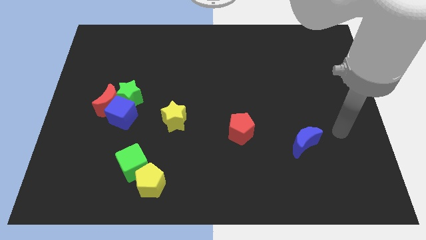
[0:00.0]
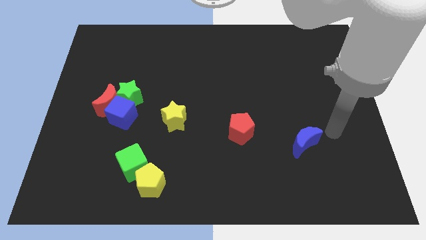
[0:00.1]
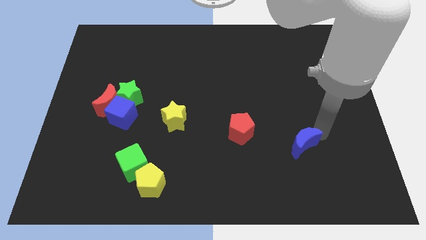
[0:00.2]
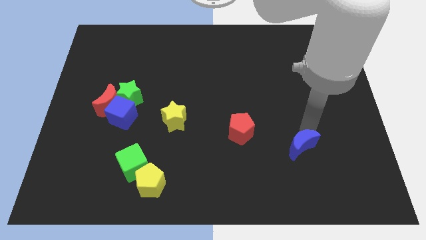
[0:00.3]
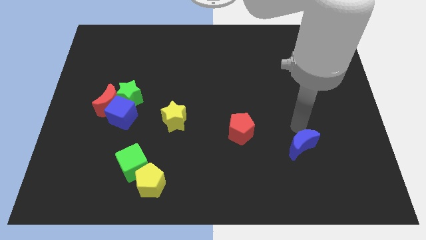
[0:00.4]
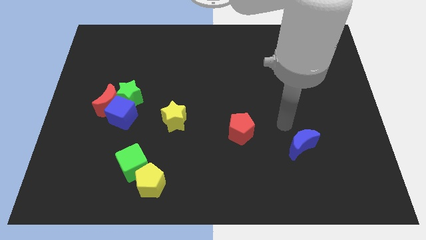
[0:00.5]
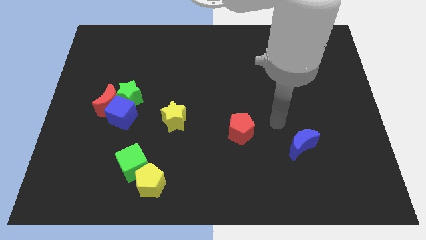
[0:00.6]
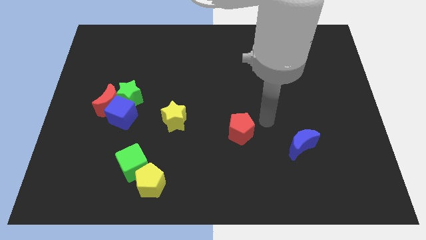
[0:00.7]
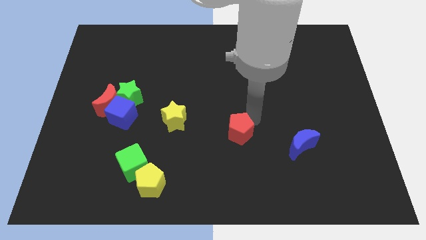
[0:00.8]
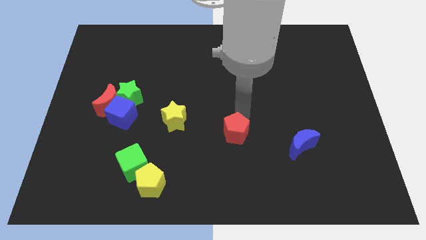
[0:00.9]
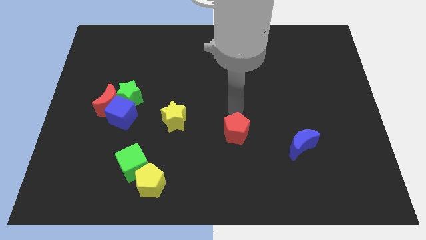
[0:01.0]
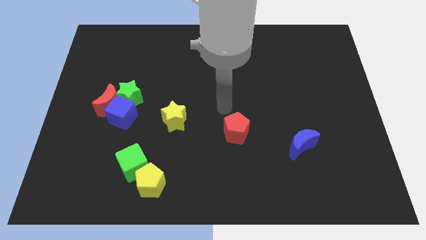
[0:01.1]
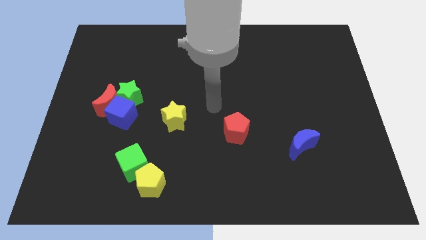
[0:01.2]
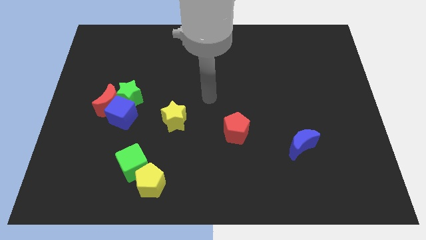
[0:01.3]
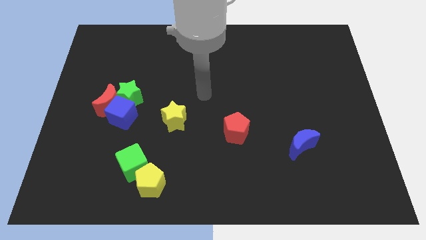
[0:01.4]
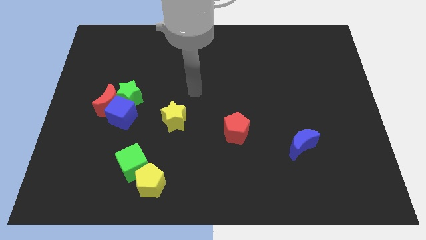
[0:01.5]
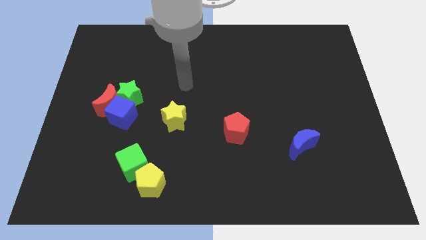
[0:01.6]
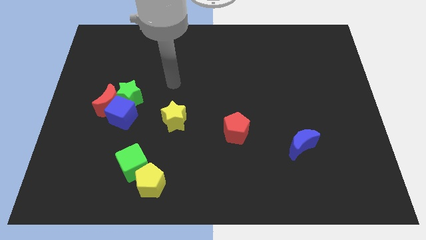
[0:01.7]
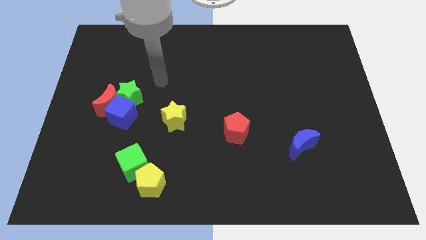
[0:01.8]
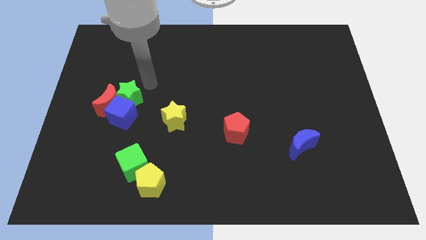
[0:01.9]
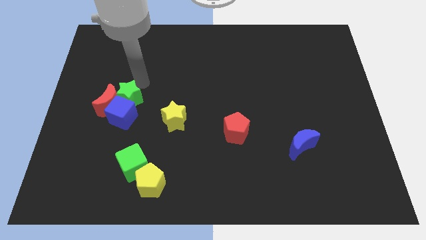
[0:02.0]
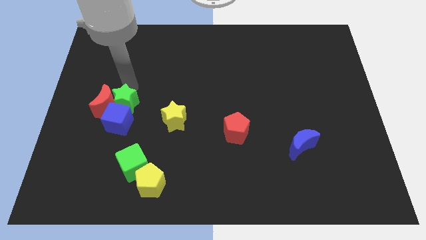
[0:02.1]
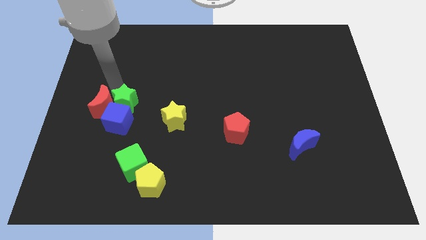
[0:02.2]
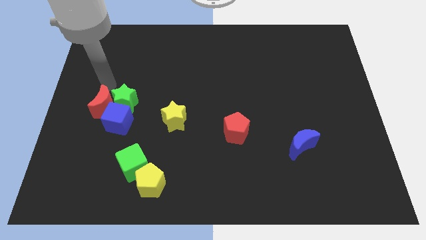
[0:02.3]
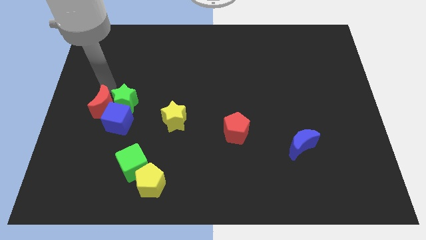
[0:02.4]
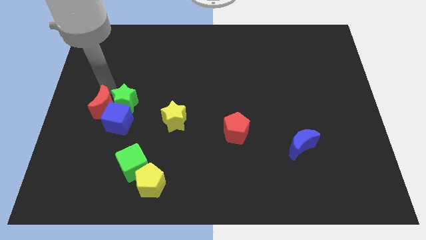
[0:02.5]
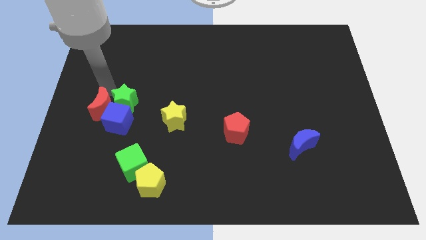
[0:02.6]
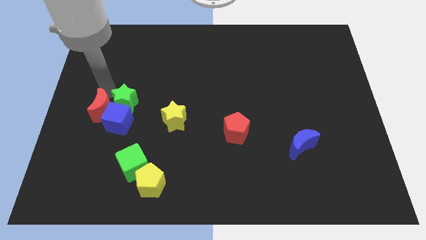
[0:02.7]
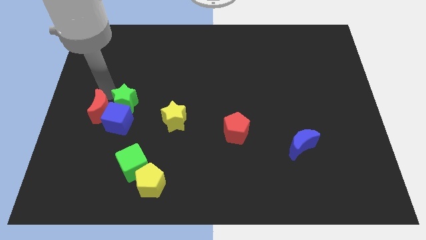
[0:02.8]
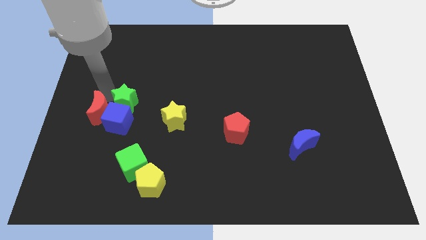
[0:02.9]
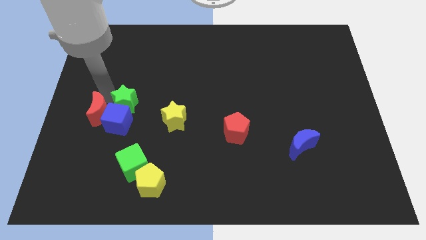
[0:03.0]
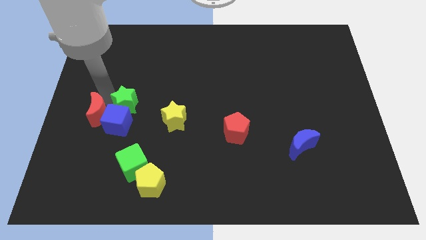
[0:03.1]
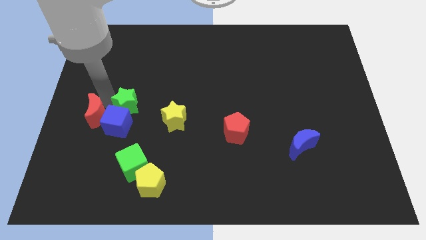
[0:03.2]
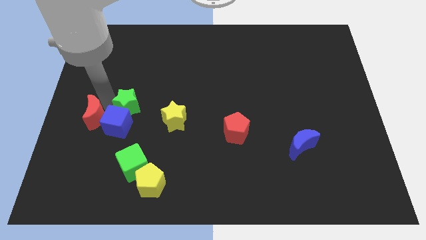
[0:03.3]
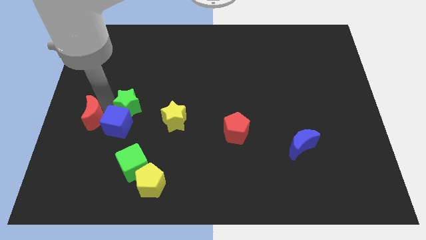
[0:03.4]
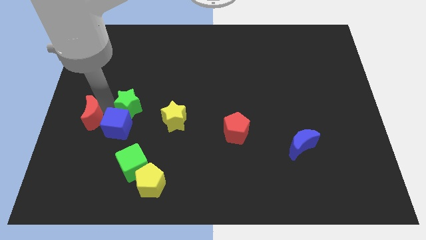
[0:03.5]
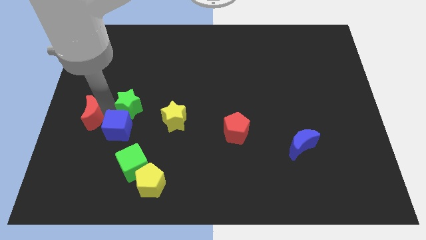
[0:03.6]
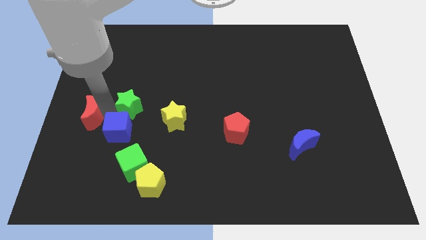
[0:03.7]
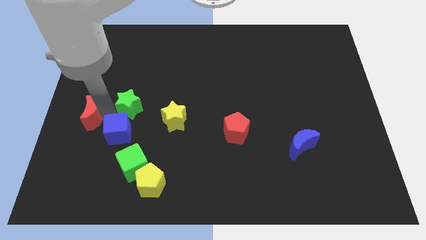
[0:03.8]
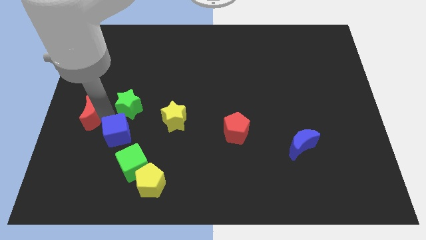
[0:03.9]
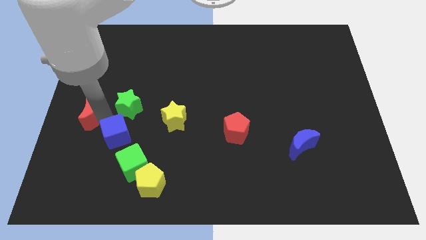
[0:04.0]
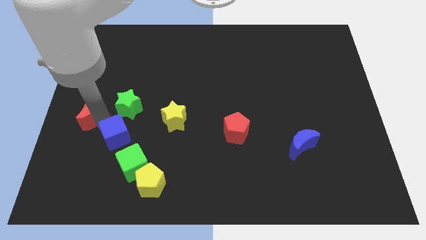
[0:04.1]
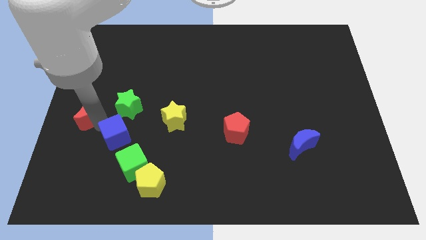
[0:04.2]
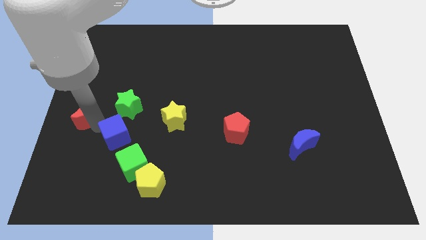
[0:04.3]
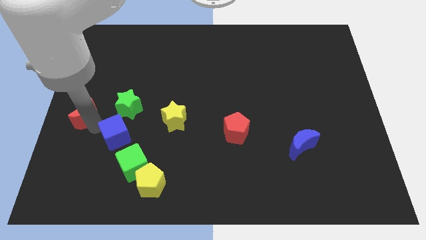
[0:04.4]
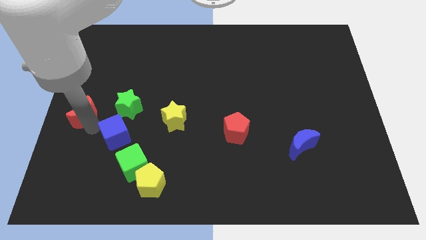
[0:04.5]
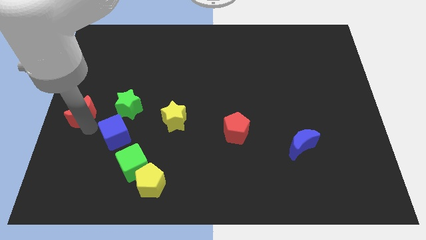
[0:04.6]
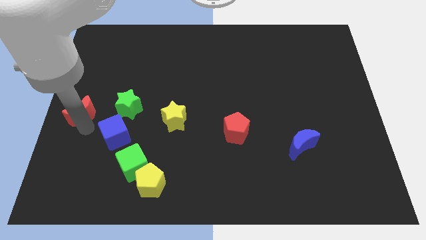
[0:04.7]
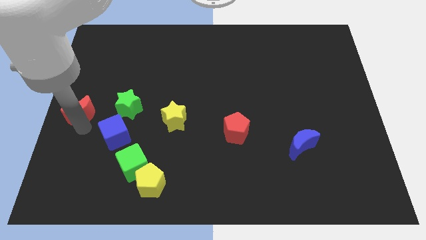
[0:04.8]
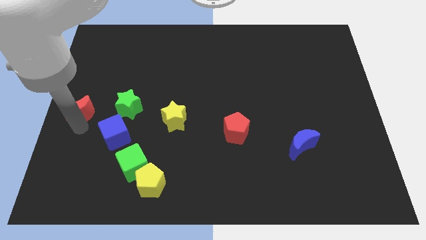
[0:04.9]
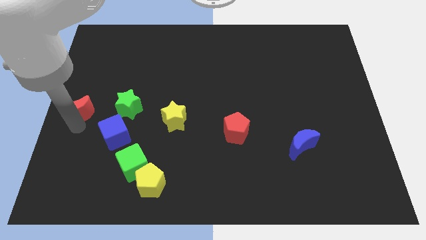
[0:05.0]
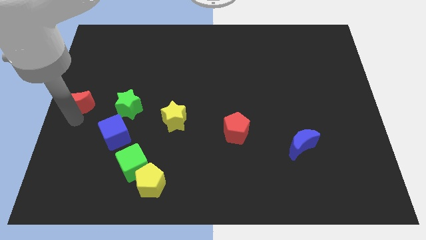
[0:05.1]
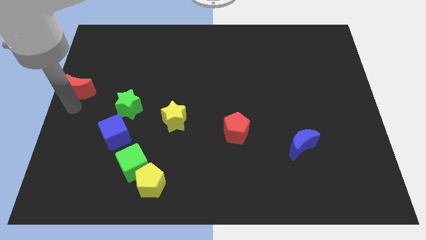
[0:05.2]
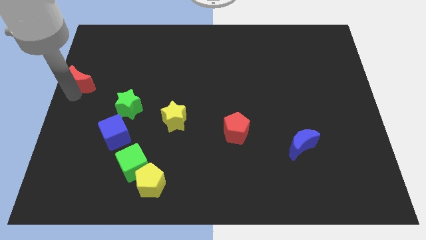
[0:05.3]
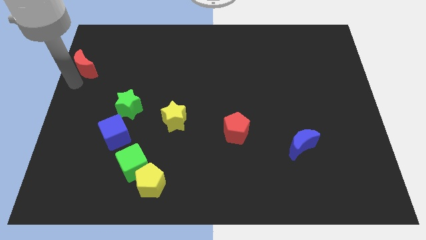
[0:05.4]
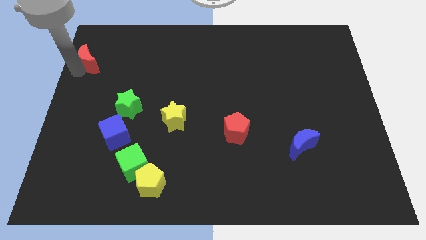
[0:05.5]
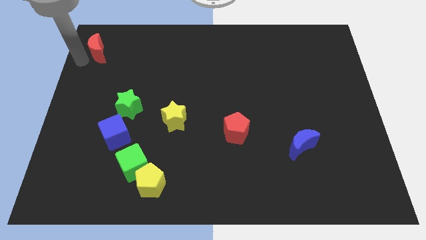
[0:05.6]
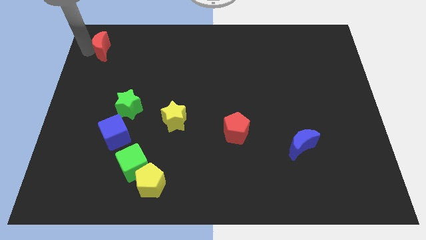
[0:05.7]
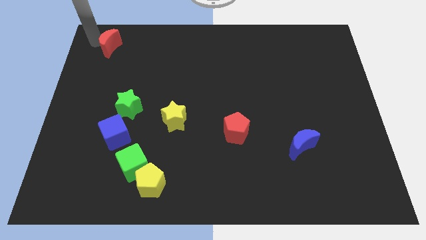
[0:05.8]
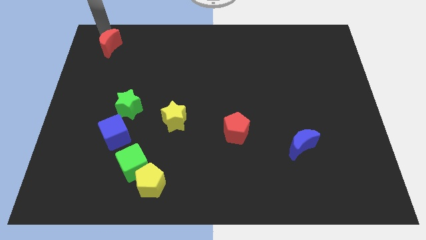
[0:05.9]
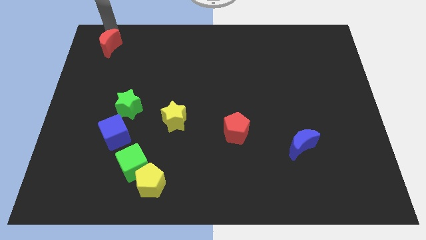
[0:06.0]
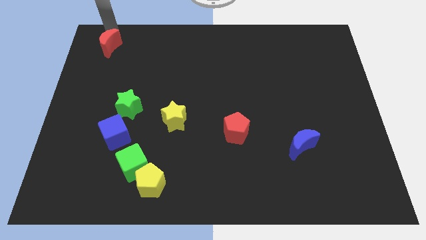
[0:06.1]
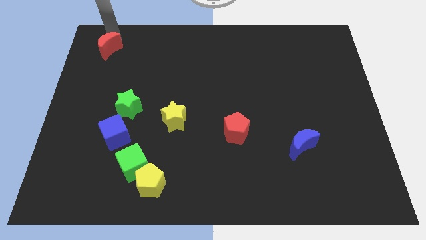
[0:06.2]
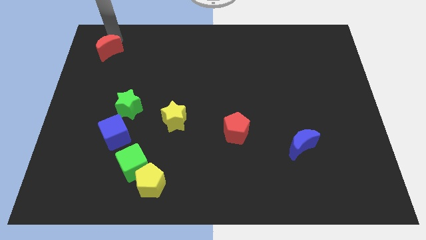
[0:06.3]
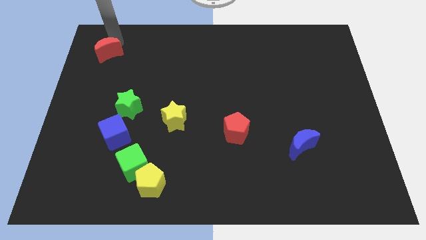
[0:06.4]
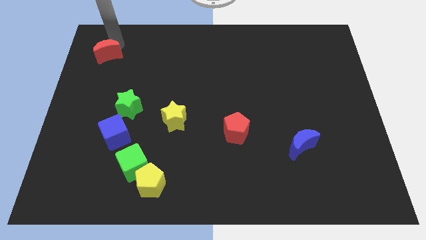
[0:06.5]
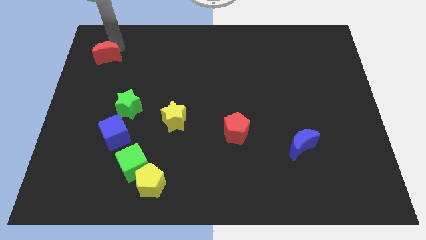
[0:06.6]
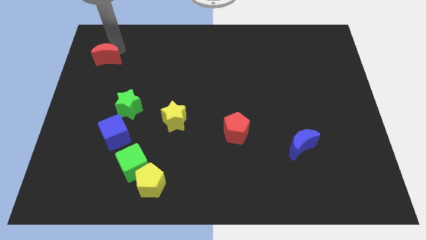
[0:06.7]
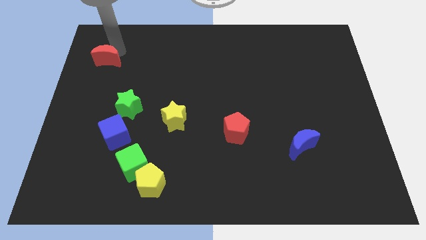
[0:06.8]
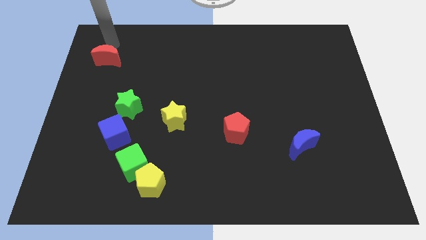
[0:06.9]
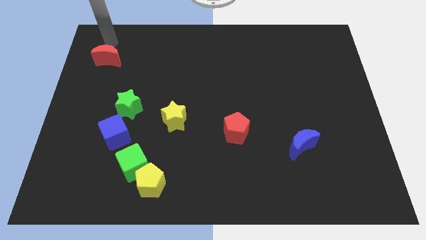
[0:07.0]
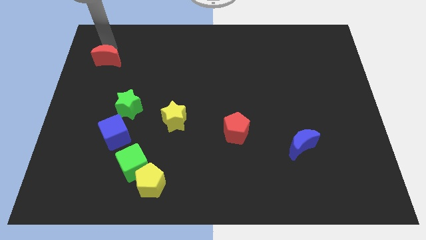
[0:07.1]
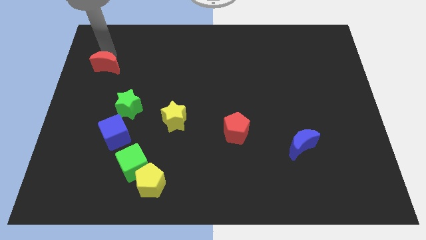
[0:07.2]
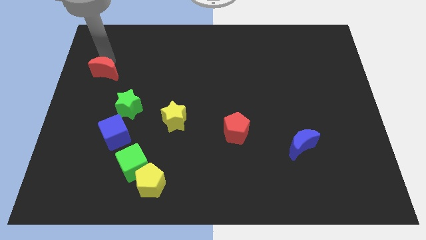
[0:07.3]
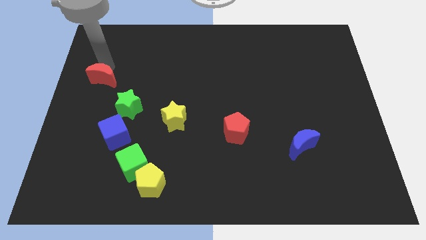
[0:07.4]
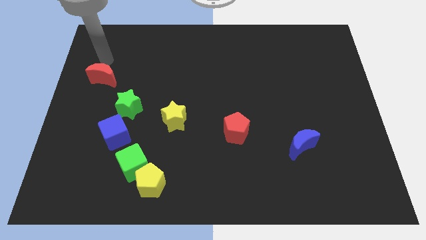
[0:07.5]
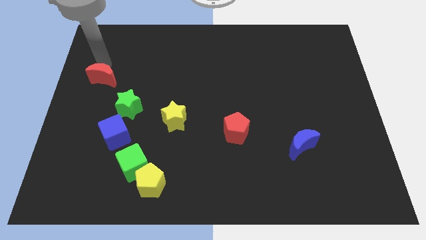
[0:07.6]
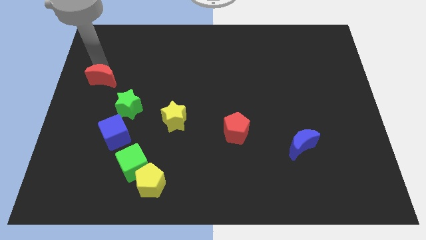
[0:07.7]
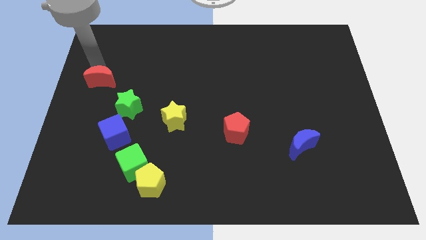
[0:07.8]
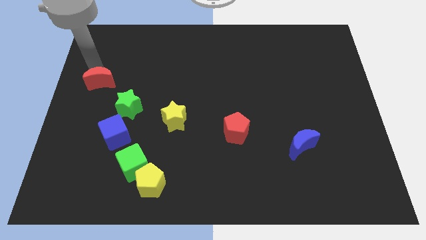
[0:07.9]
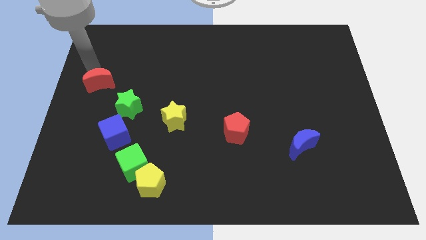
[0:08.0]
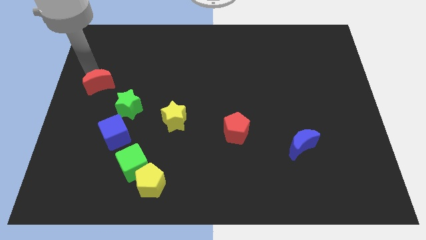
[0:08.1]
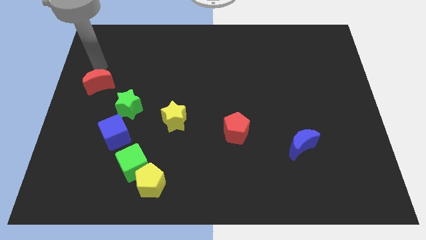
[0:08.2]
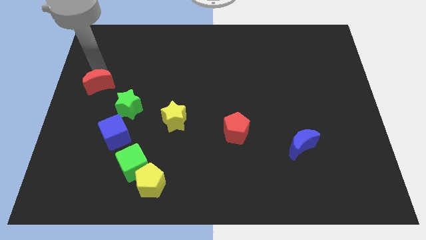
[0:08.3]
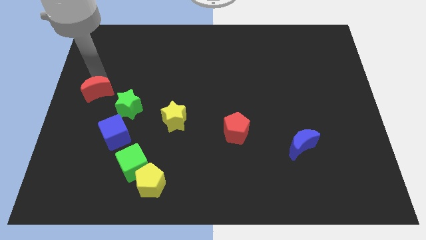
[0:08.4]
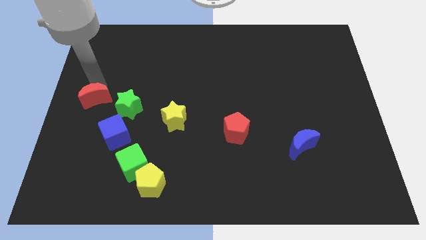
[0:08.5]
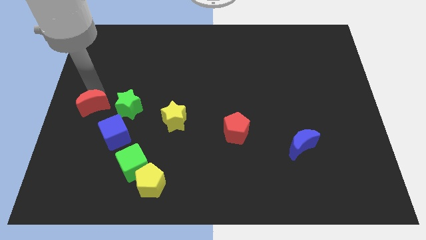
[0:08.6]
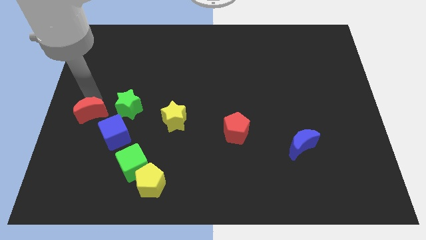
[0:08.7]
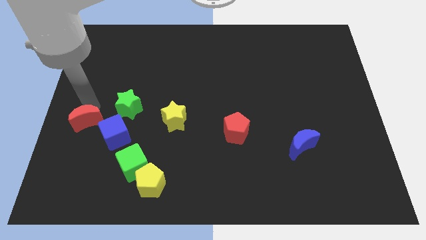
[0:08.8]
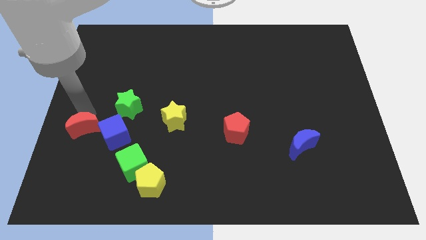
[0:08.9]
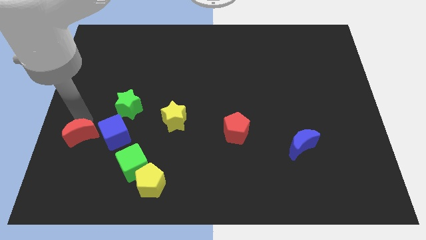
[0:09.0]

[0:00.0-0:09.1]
move the red moon down a bit
